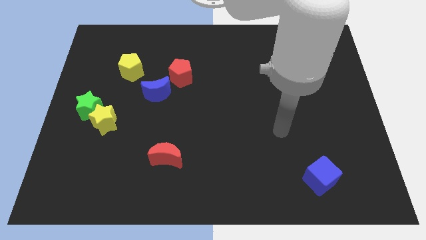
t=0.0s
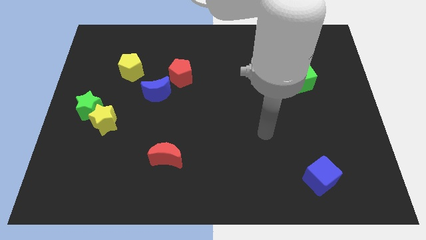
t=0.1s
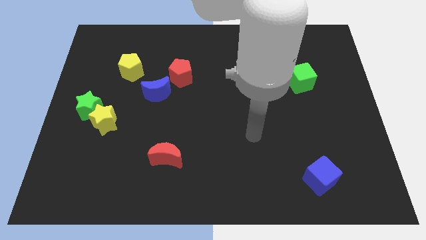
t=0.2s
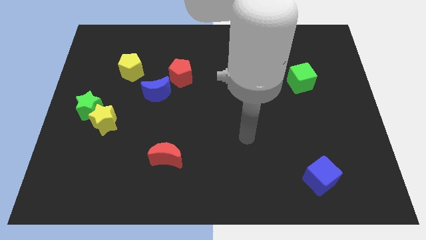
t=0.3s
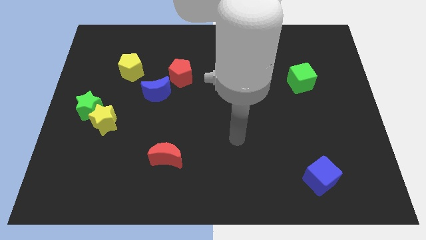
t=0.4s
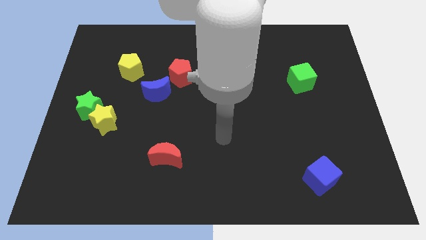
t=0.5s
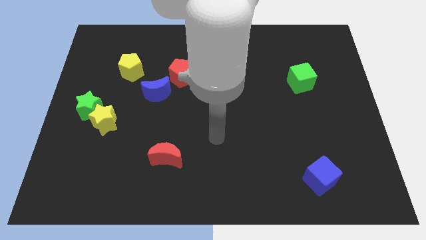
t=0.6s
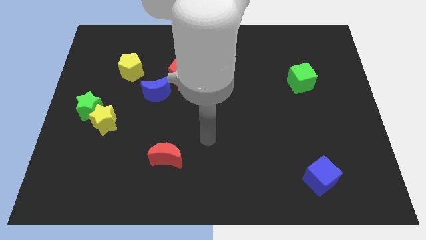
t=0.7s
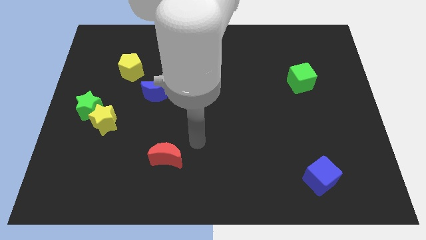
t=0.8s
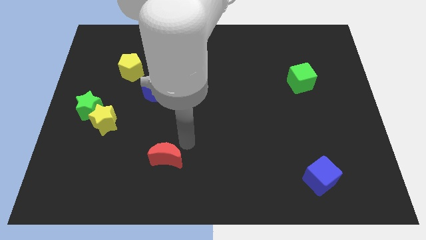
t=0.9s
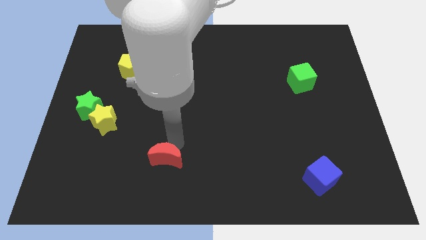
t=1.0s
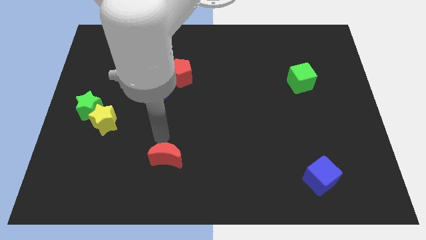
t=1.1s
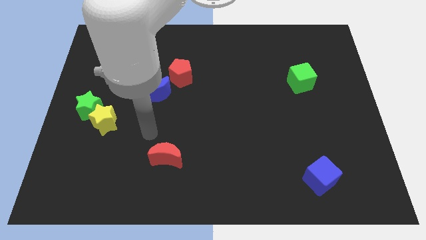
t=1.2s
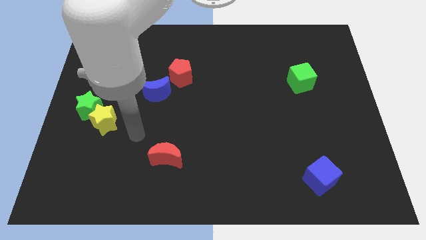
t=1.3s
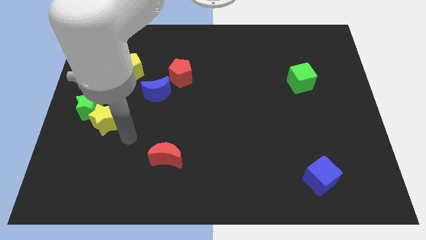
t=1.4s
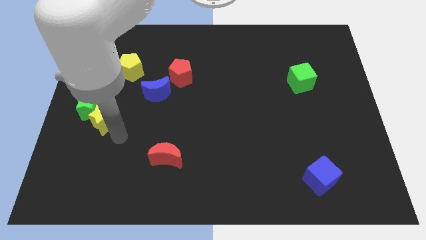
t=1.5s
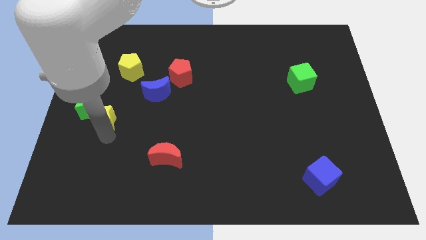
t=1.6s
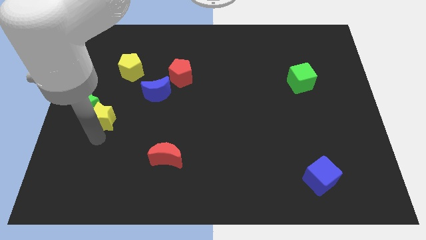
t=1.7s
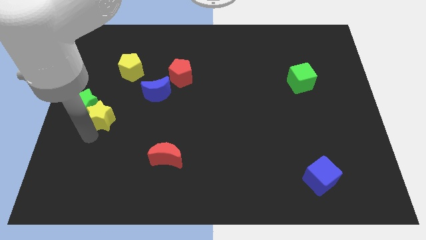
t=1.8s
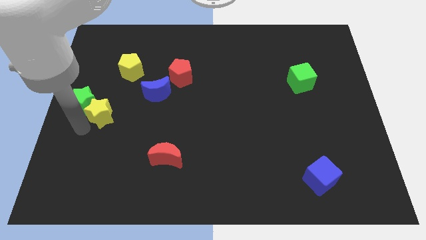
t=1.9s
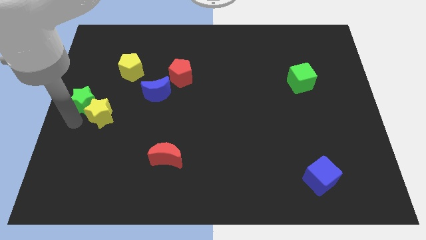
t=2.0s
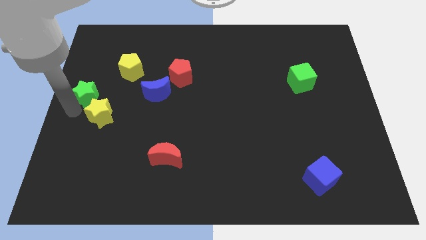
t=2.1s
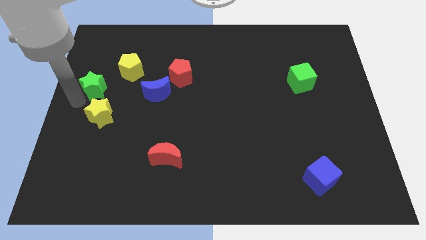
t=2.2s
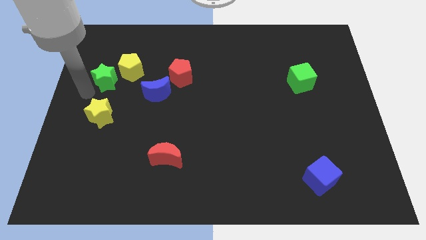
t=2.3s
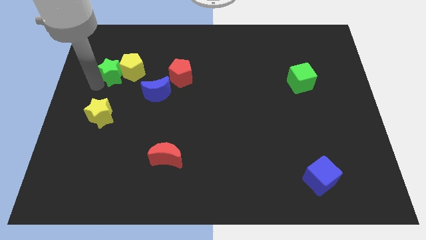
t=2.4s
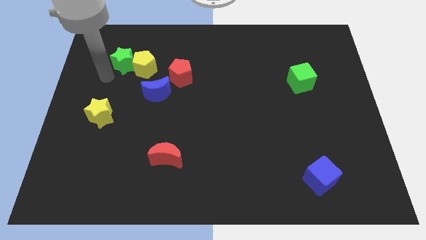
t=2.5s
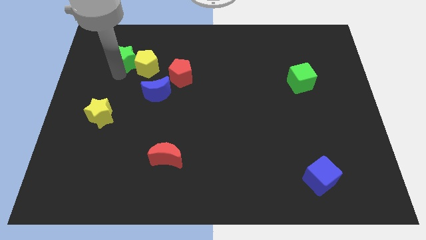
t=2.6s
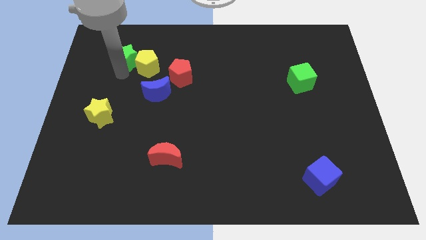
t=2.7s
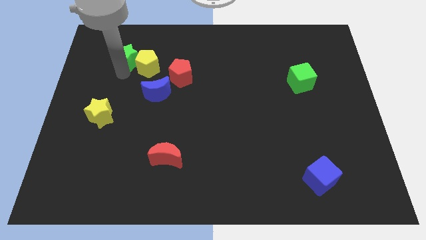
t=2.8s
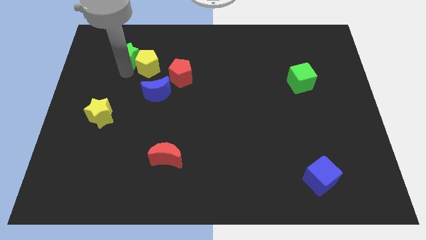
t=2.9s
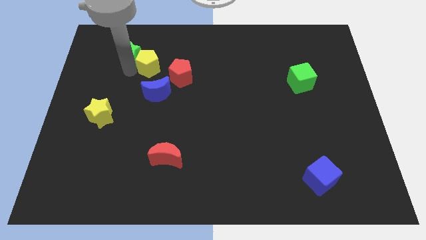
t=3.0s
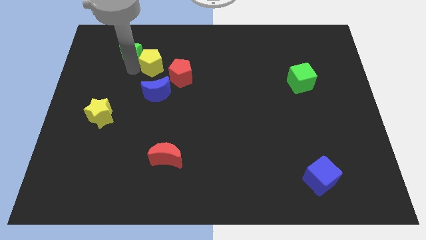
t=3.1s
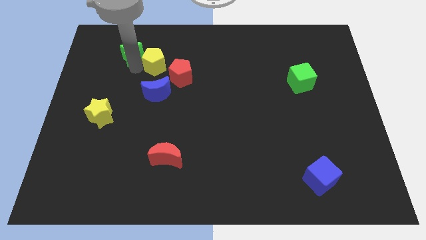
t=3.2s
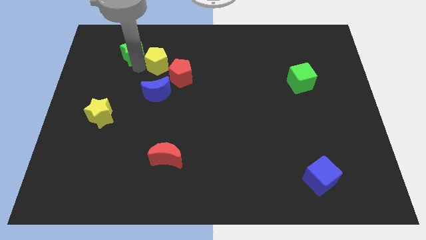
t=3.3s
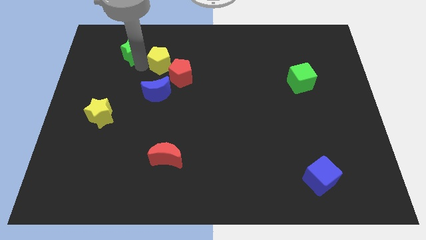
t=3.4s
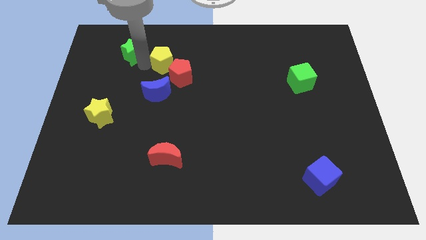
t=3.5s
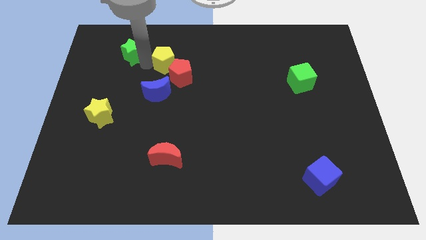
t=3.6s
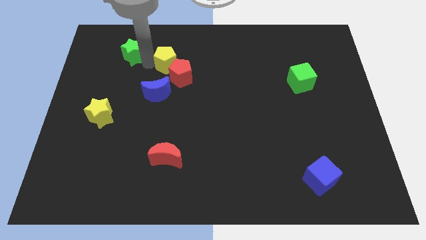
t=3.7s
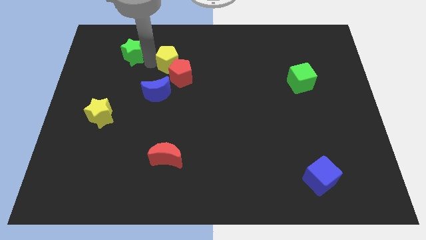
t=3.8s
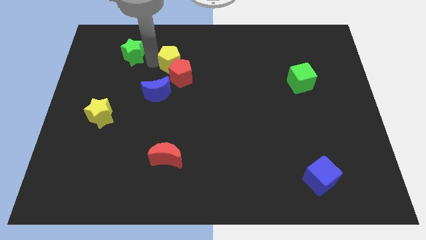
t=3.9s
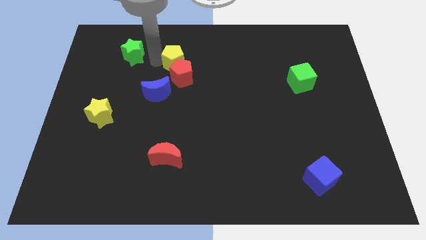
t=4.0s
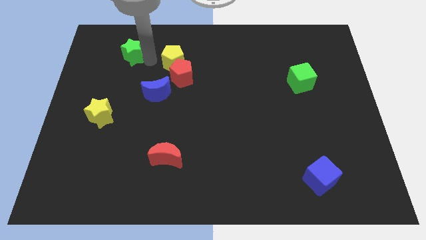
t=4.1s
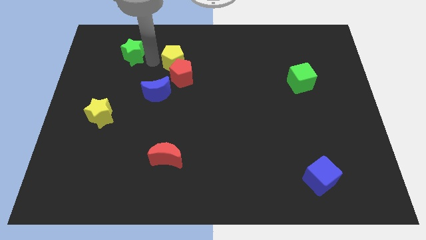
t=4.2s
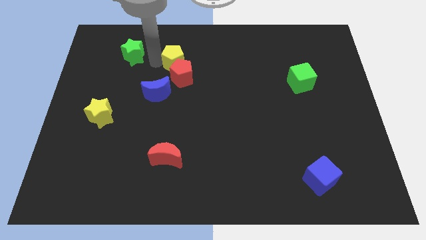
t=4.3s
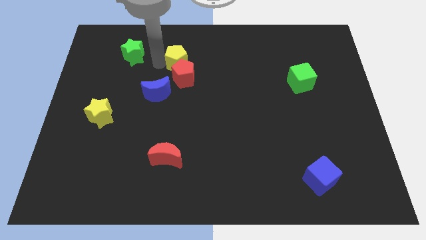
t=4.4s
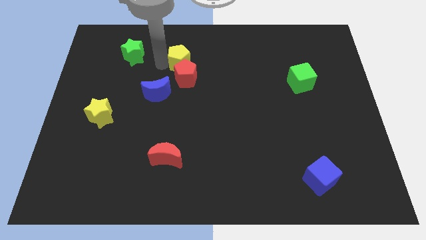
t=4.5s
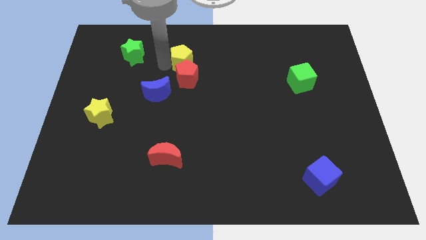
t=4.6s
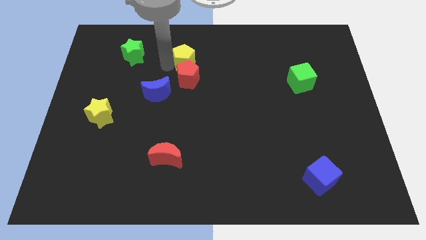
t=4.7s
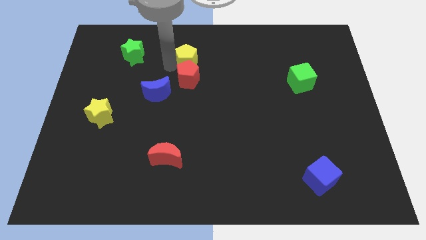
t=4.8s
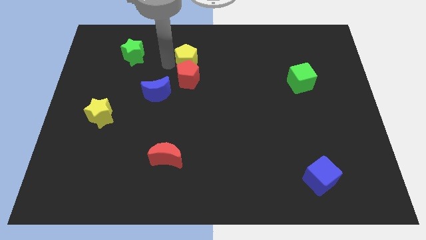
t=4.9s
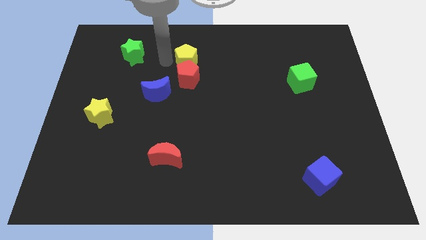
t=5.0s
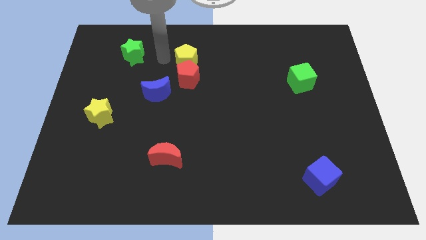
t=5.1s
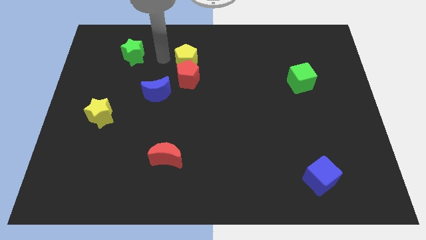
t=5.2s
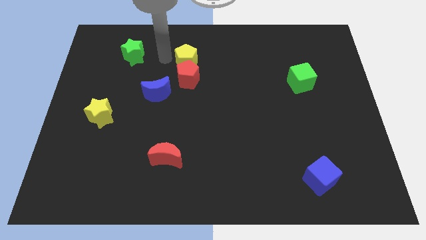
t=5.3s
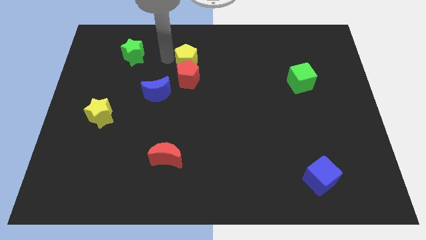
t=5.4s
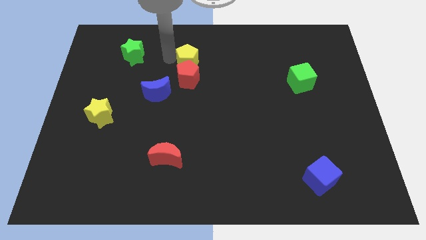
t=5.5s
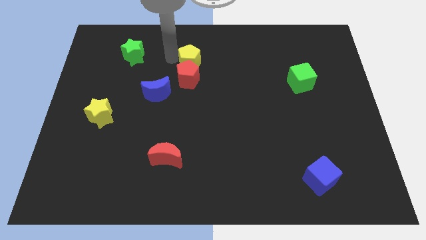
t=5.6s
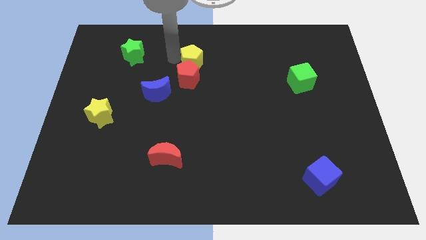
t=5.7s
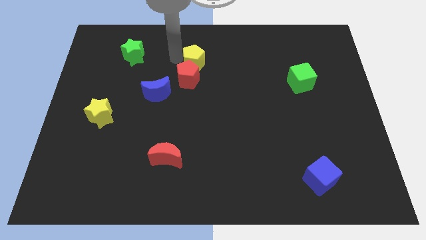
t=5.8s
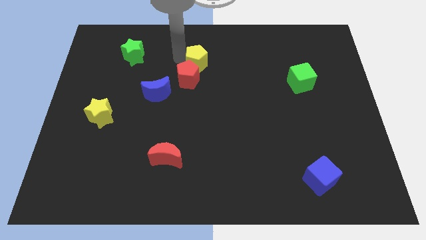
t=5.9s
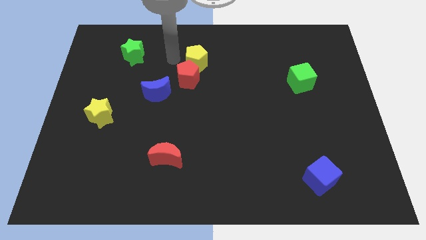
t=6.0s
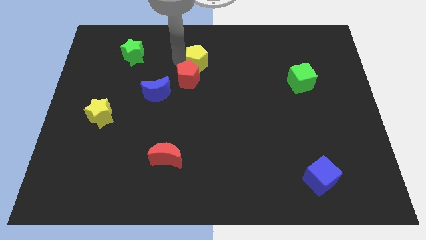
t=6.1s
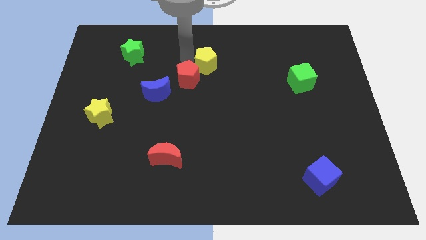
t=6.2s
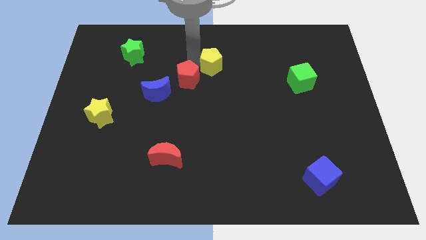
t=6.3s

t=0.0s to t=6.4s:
move the yellow pentagon right

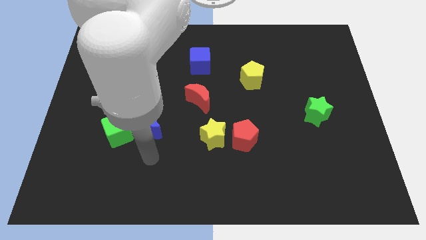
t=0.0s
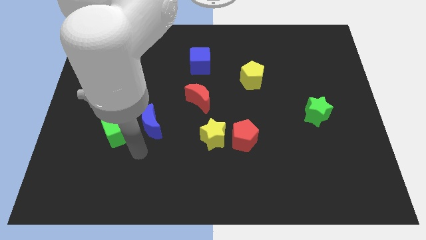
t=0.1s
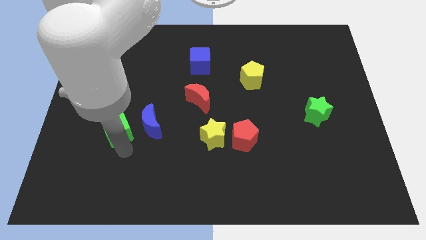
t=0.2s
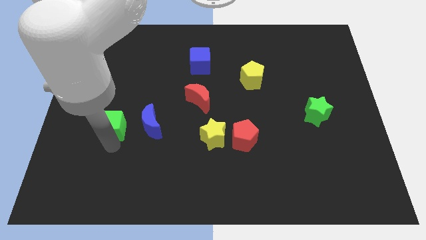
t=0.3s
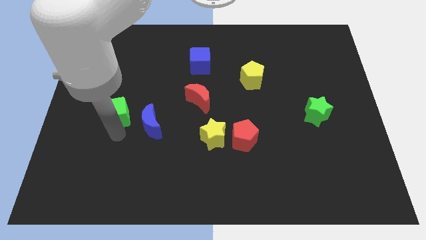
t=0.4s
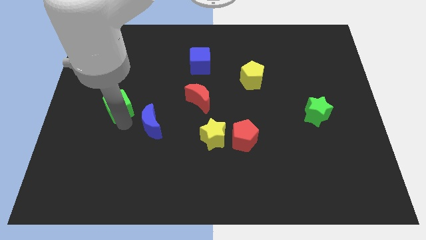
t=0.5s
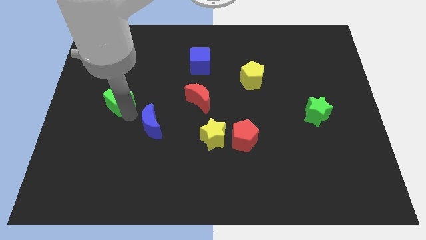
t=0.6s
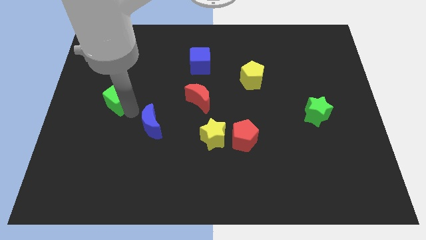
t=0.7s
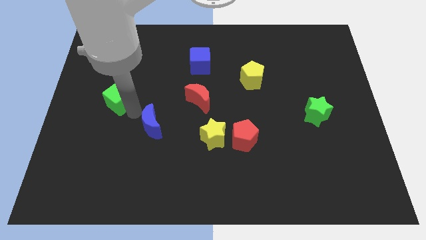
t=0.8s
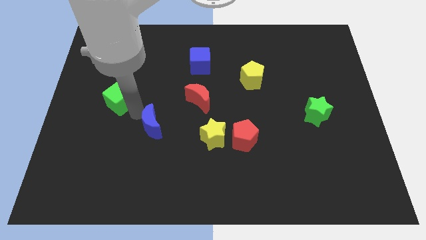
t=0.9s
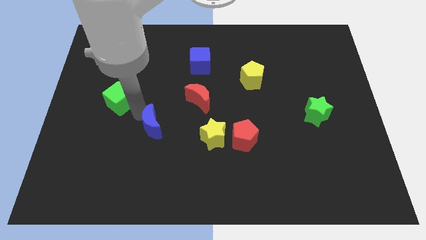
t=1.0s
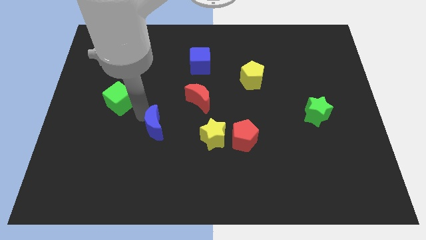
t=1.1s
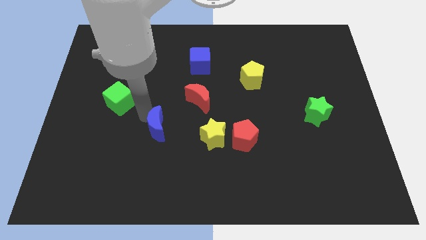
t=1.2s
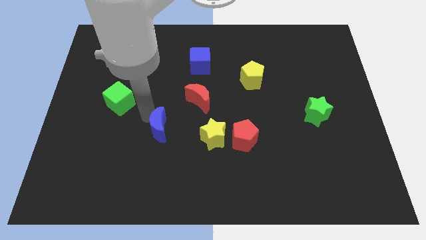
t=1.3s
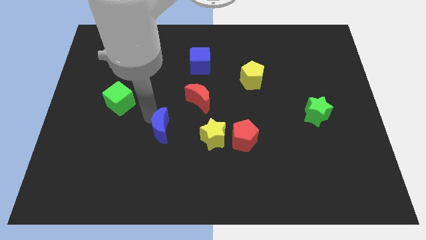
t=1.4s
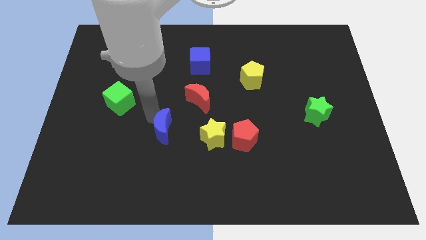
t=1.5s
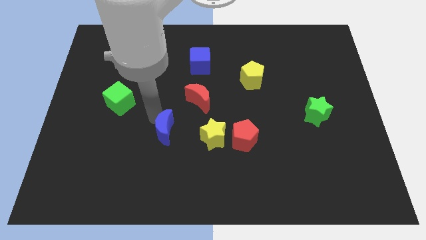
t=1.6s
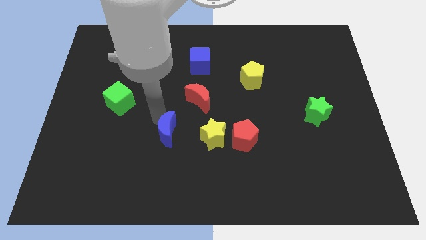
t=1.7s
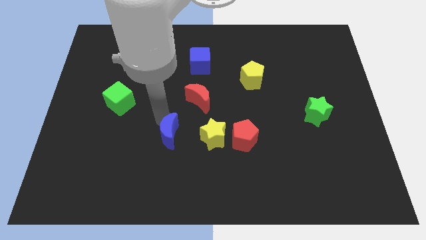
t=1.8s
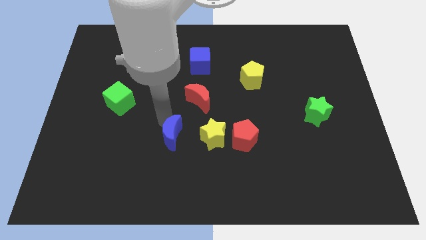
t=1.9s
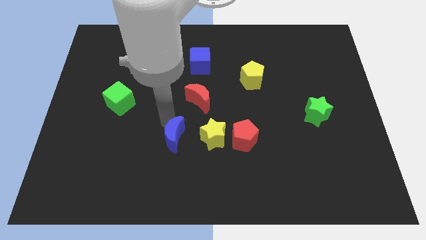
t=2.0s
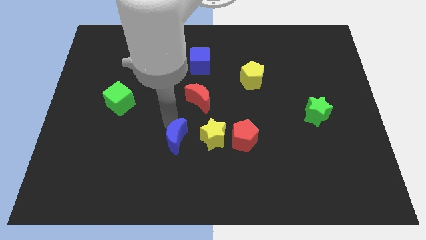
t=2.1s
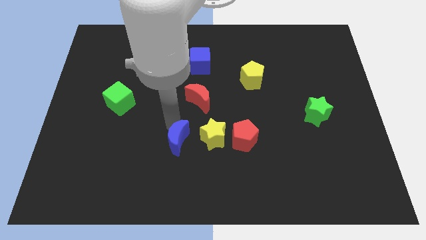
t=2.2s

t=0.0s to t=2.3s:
move the blue moon downwards and right a little
